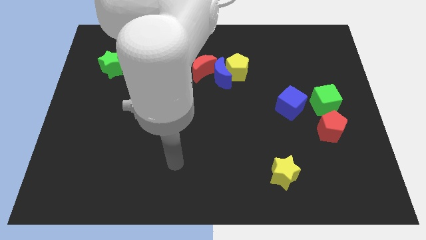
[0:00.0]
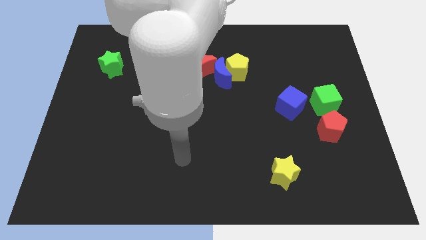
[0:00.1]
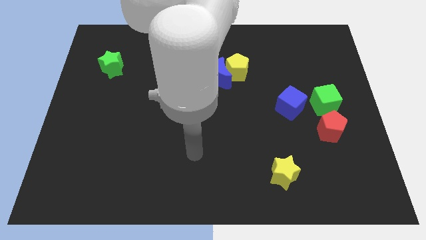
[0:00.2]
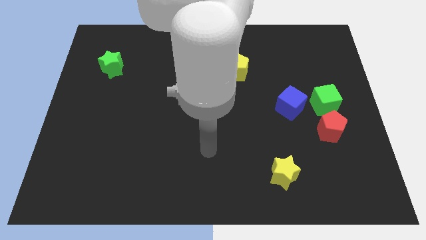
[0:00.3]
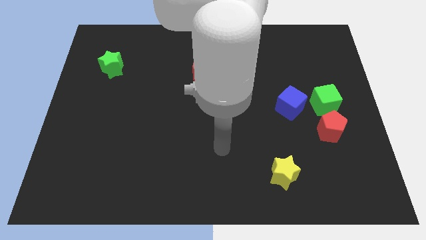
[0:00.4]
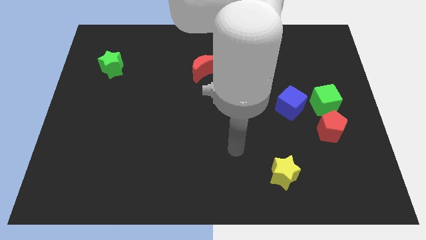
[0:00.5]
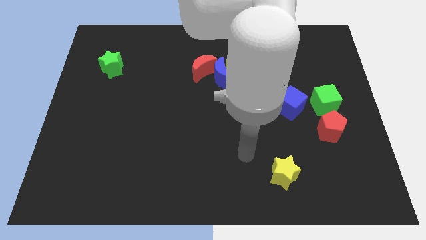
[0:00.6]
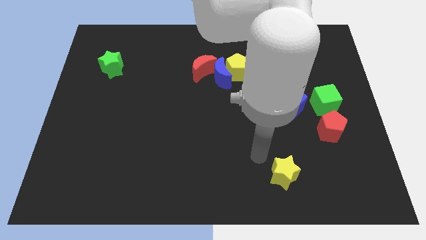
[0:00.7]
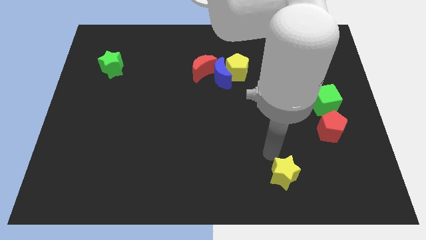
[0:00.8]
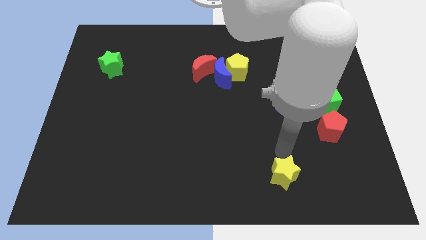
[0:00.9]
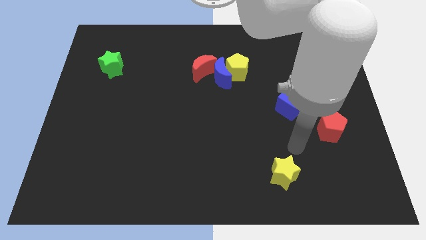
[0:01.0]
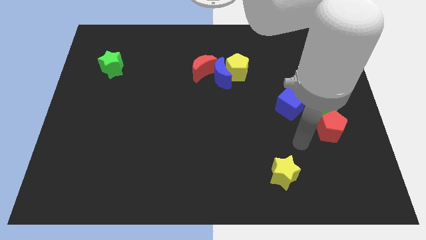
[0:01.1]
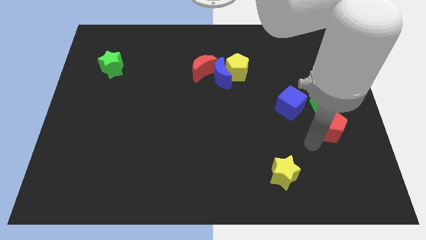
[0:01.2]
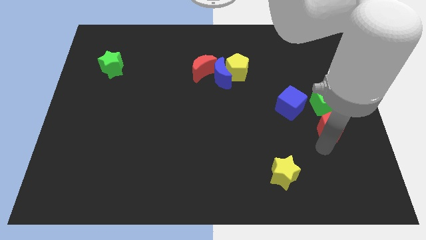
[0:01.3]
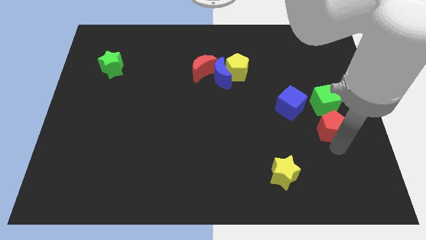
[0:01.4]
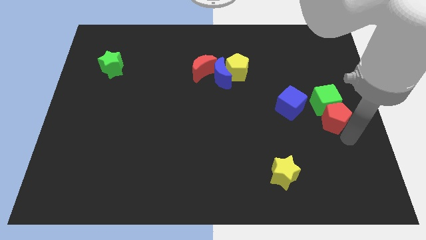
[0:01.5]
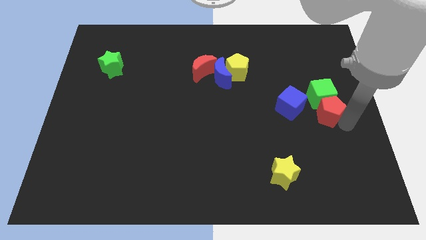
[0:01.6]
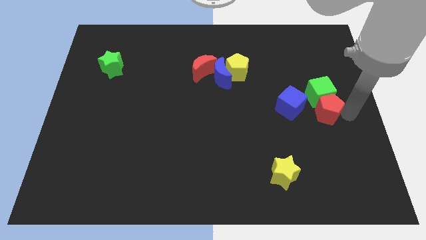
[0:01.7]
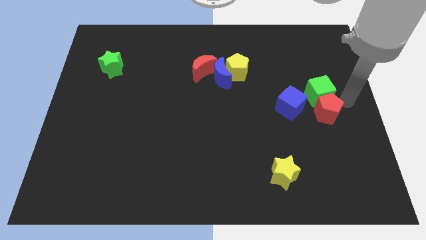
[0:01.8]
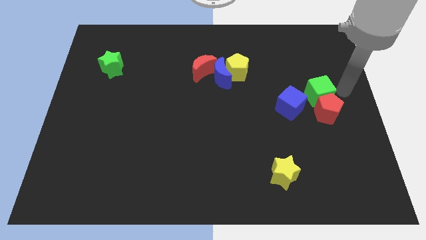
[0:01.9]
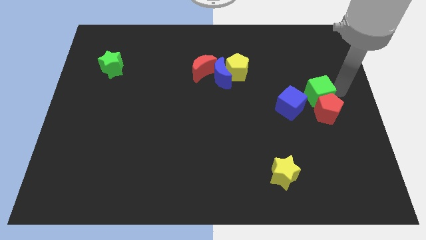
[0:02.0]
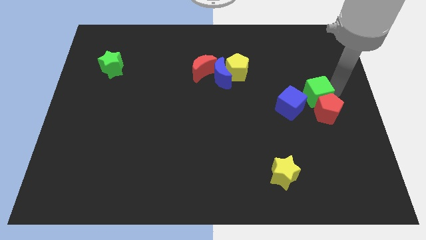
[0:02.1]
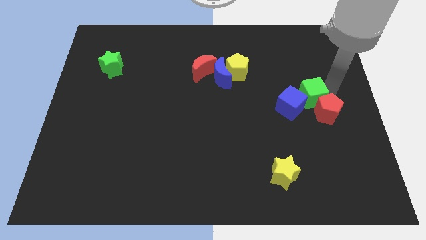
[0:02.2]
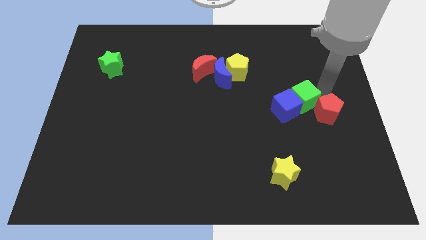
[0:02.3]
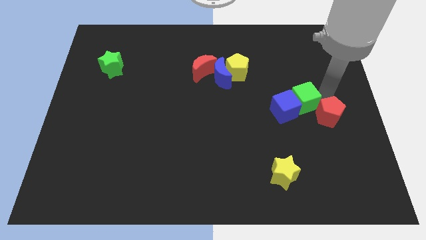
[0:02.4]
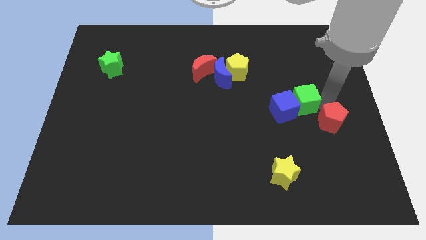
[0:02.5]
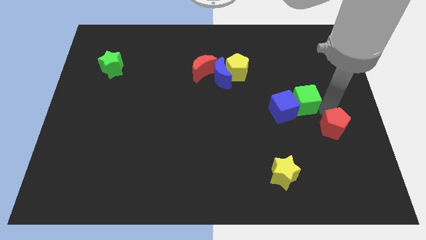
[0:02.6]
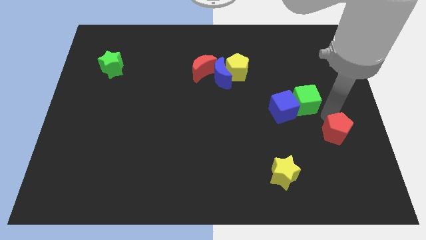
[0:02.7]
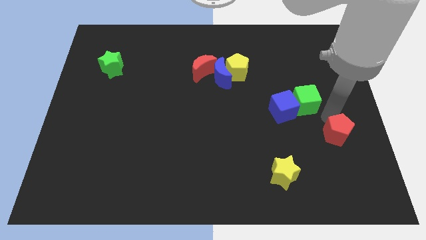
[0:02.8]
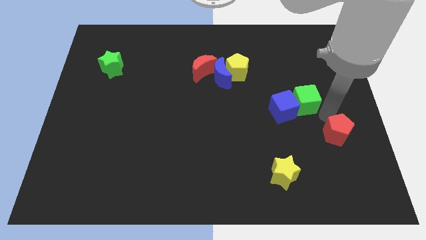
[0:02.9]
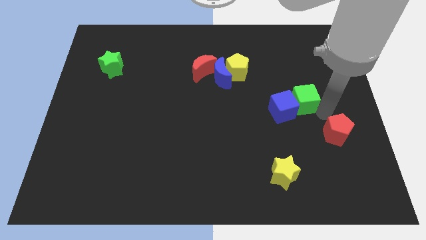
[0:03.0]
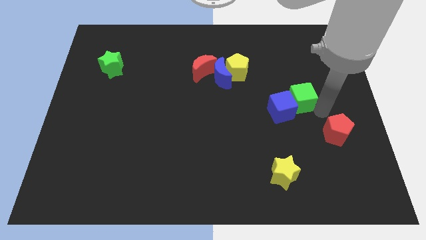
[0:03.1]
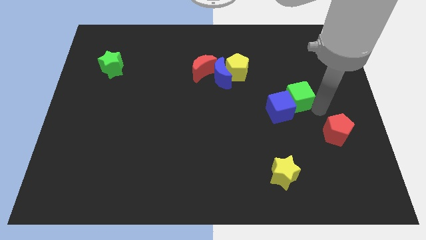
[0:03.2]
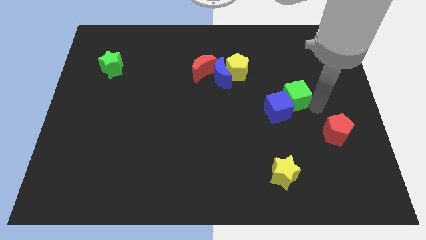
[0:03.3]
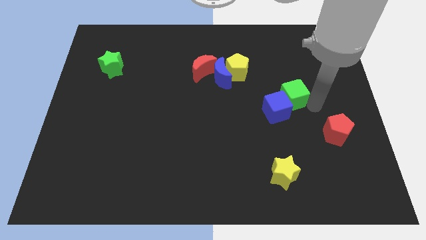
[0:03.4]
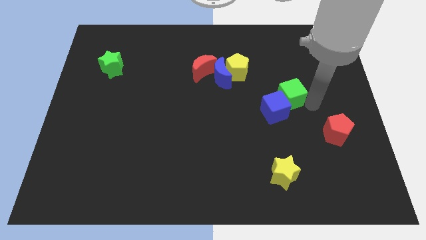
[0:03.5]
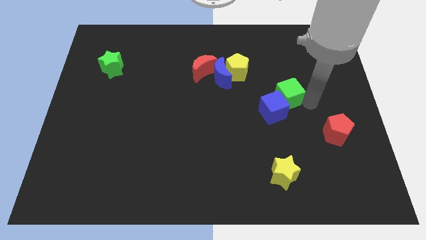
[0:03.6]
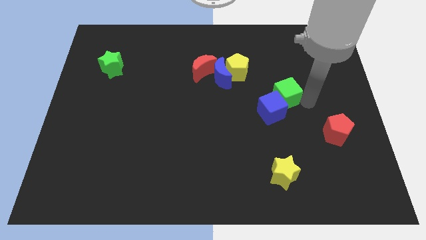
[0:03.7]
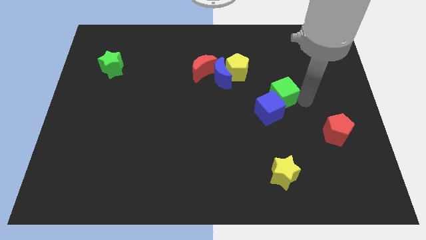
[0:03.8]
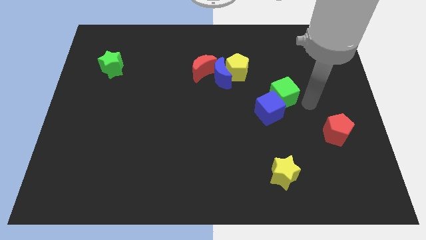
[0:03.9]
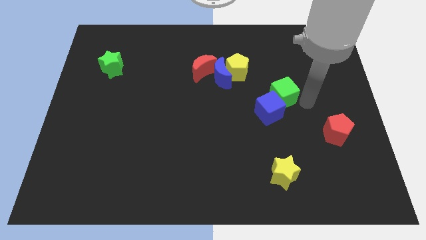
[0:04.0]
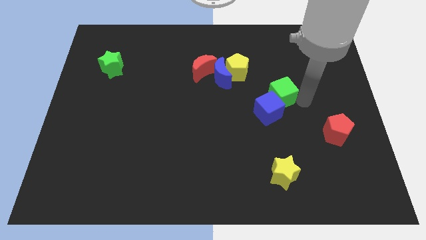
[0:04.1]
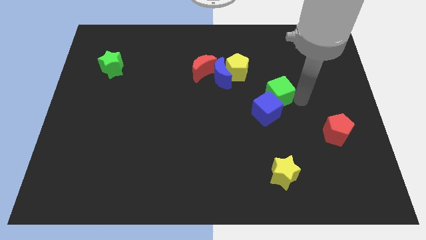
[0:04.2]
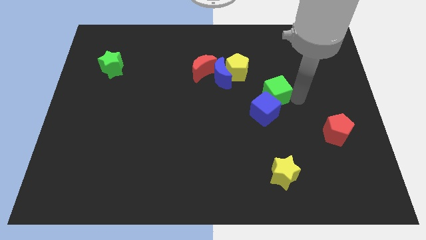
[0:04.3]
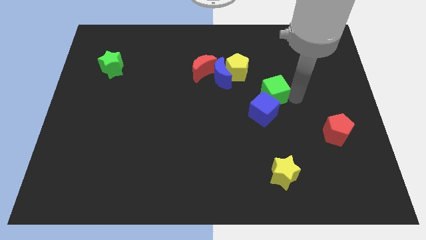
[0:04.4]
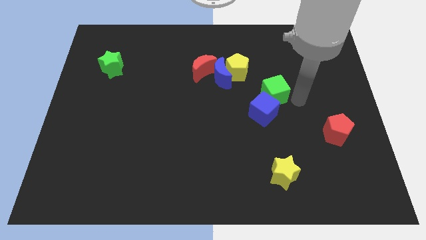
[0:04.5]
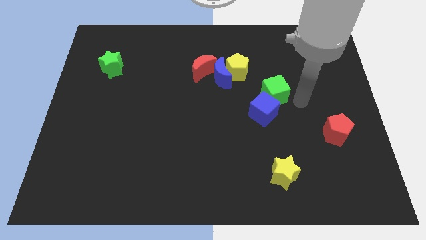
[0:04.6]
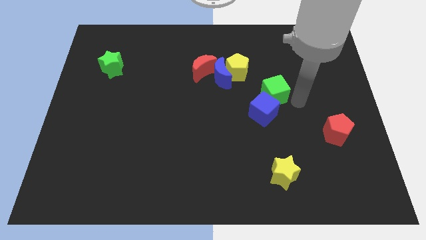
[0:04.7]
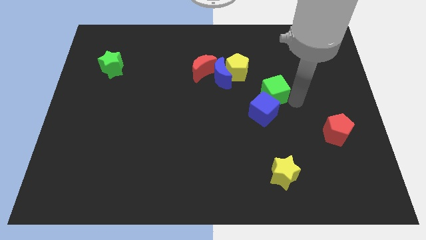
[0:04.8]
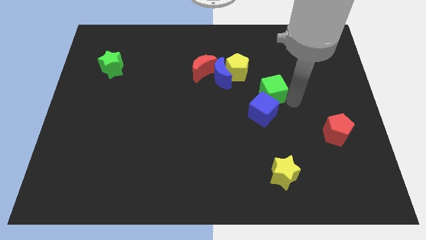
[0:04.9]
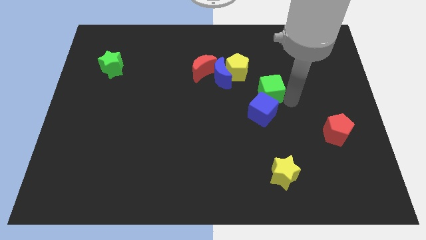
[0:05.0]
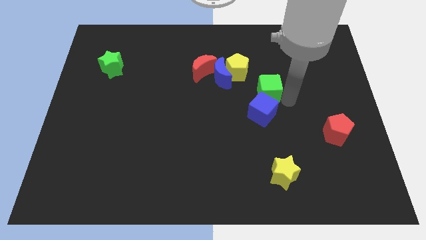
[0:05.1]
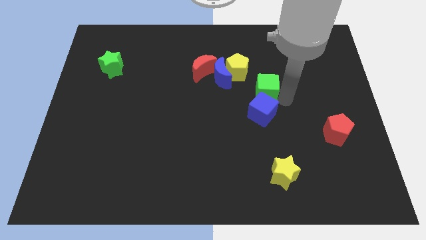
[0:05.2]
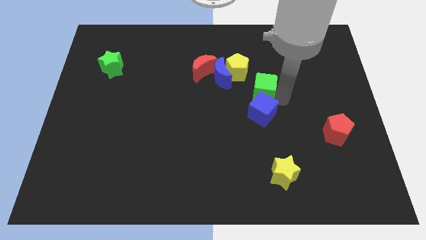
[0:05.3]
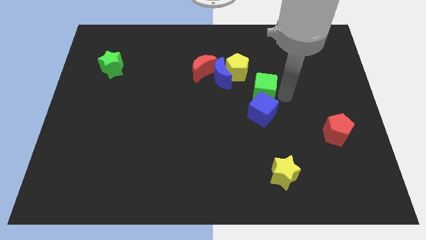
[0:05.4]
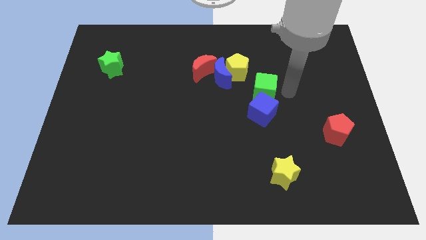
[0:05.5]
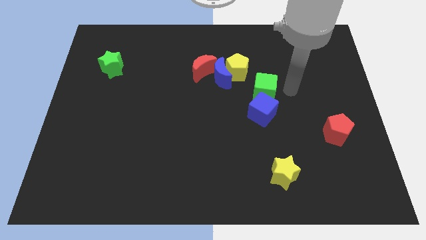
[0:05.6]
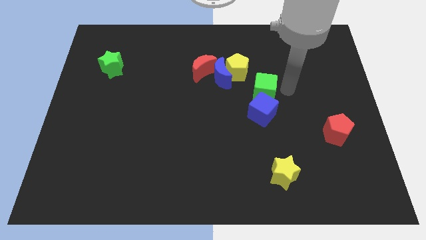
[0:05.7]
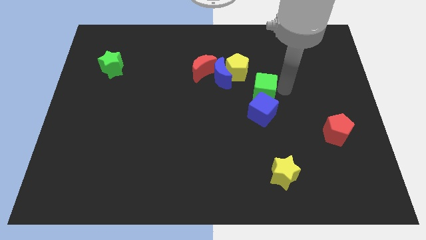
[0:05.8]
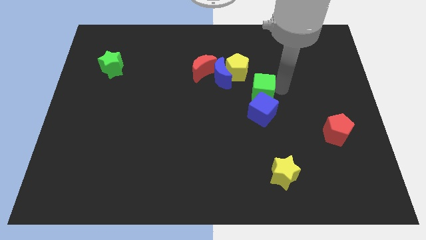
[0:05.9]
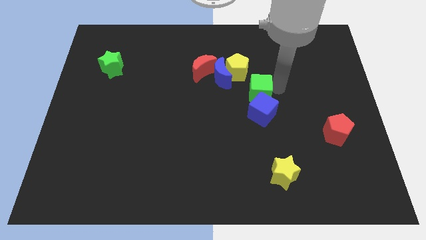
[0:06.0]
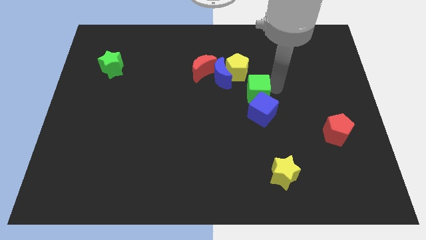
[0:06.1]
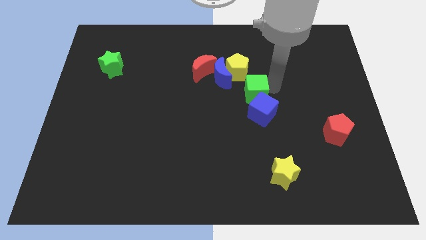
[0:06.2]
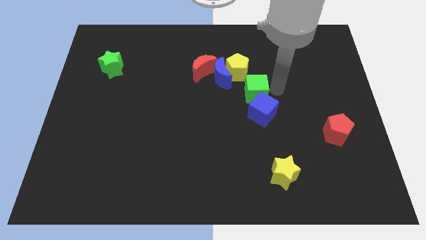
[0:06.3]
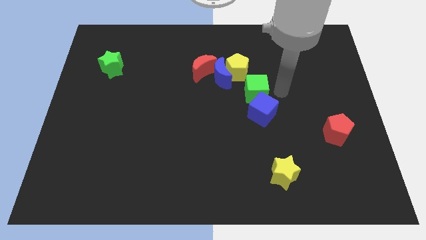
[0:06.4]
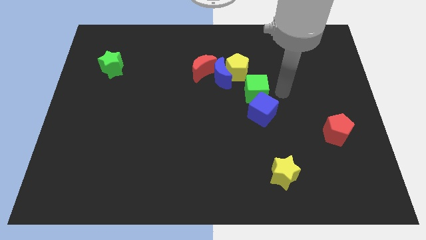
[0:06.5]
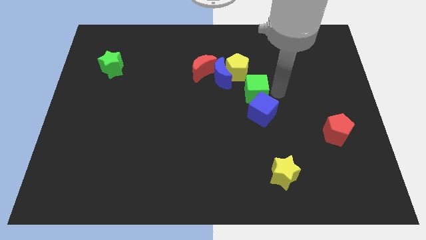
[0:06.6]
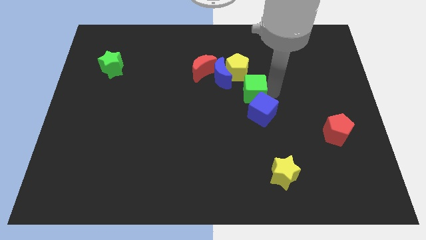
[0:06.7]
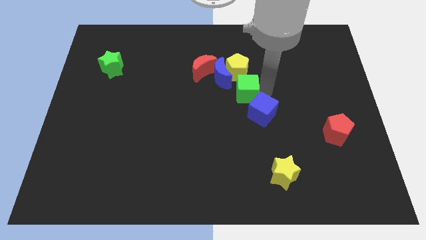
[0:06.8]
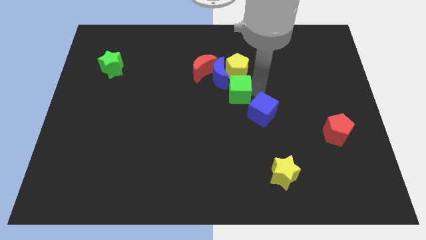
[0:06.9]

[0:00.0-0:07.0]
push the green cube to the left

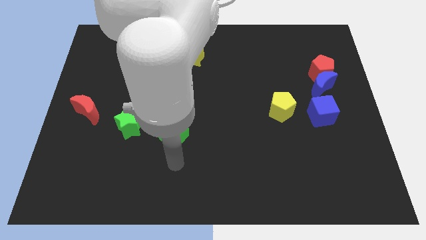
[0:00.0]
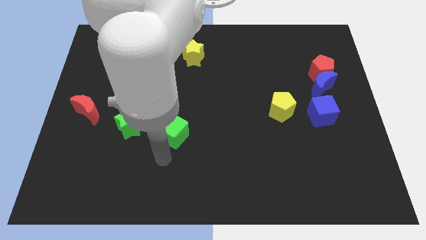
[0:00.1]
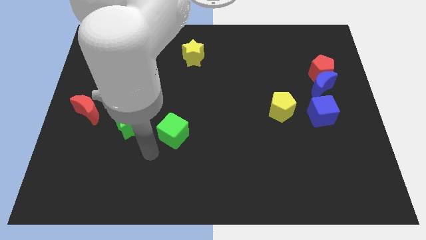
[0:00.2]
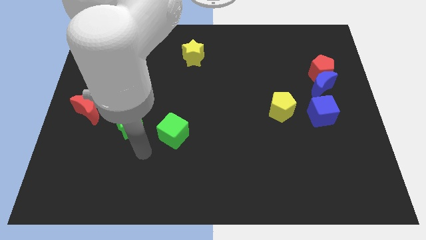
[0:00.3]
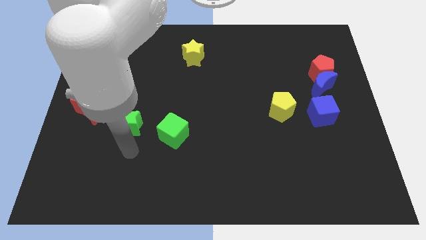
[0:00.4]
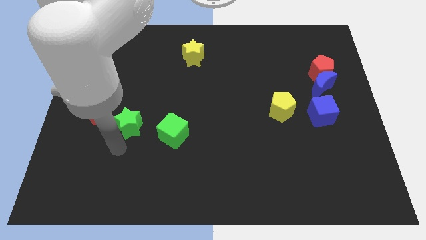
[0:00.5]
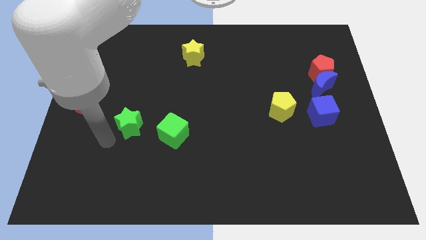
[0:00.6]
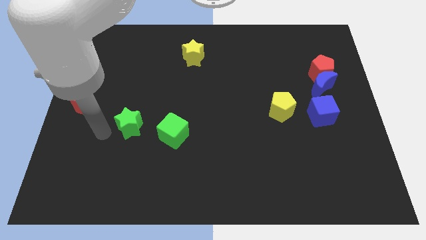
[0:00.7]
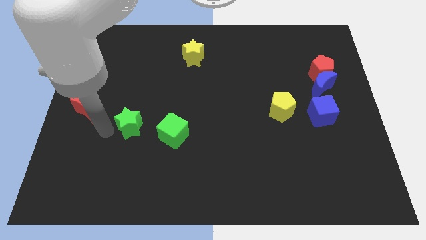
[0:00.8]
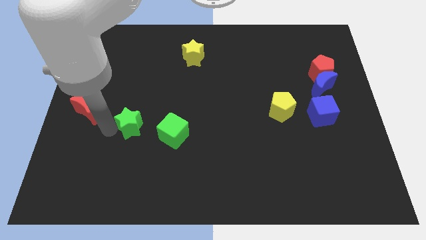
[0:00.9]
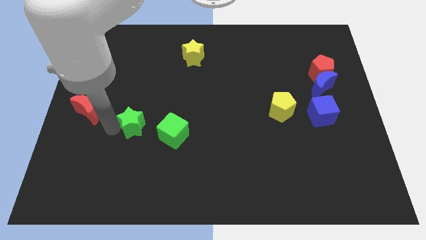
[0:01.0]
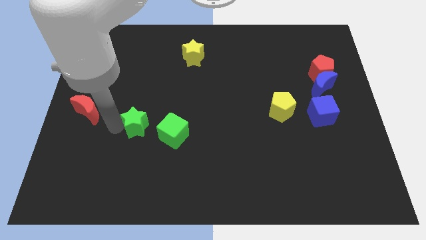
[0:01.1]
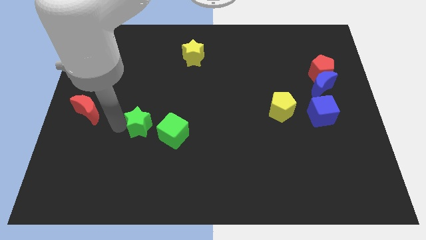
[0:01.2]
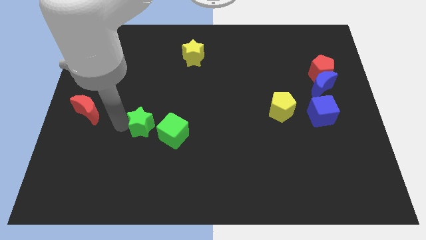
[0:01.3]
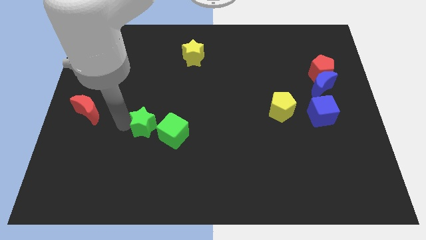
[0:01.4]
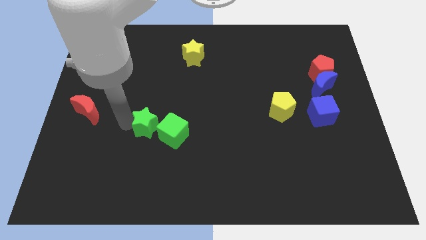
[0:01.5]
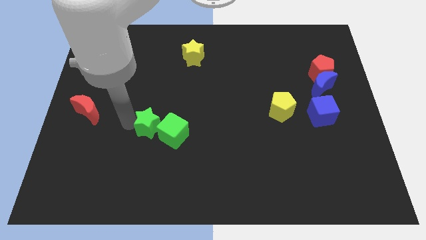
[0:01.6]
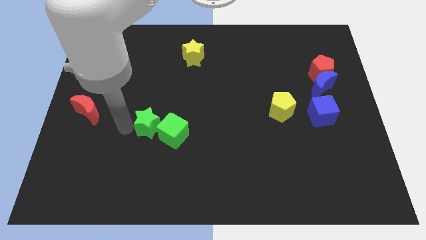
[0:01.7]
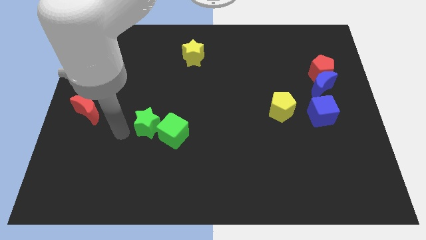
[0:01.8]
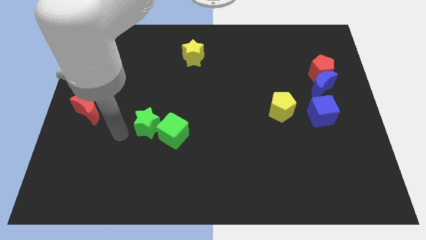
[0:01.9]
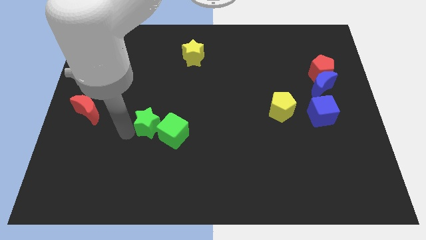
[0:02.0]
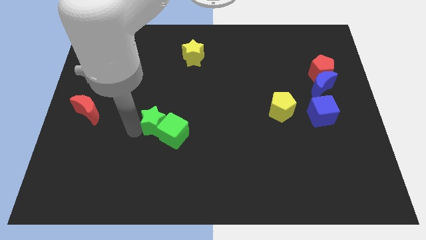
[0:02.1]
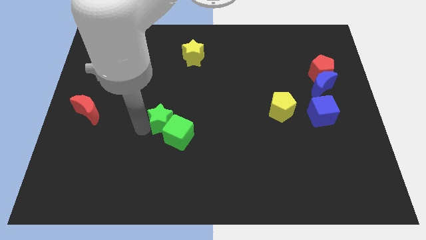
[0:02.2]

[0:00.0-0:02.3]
move the green star to the right a little
